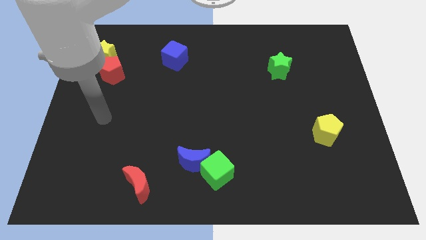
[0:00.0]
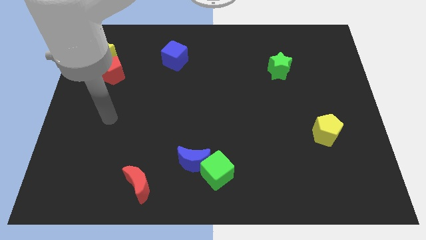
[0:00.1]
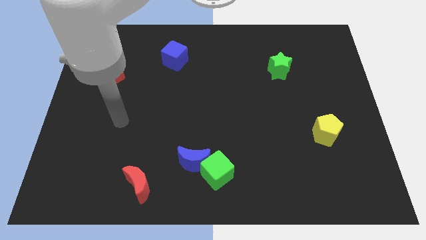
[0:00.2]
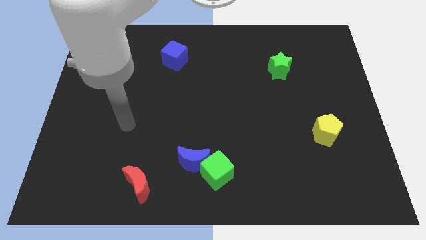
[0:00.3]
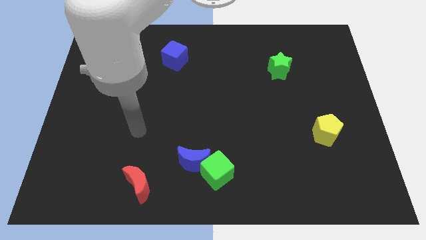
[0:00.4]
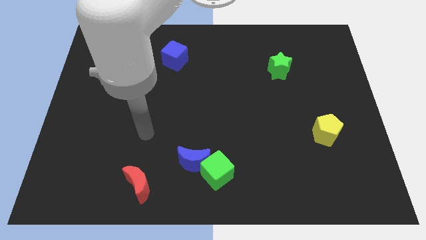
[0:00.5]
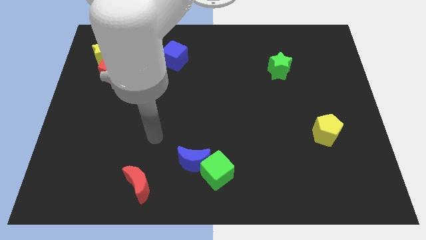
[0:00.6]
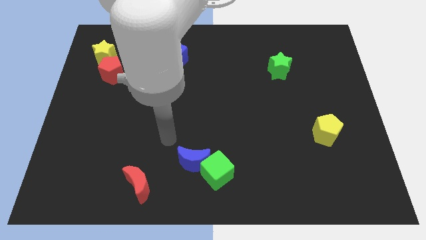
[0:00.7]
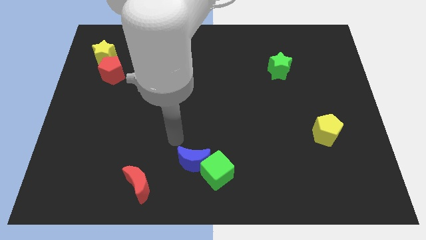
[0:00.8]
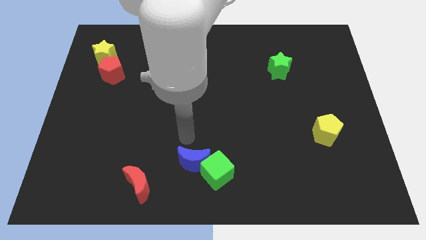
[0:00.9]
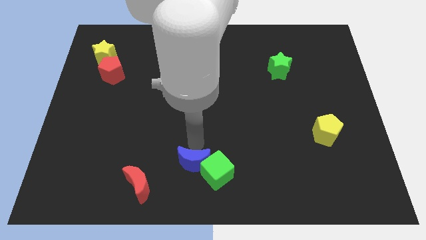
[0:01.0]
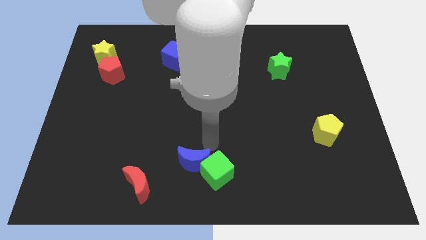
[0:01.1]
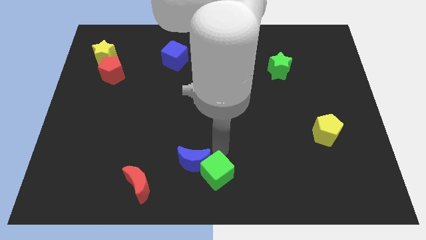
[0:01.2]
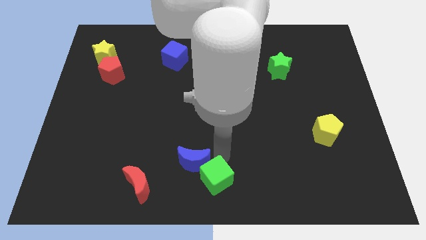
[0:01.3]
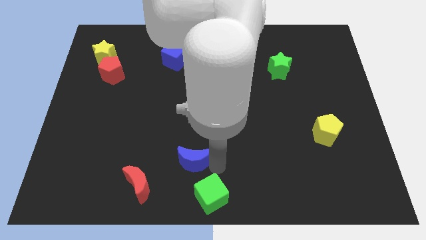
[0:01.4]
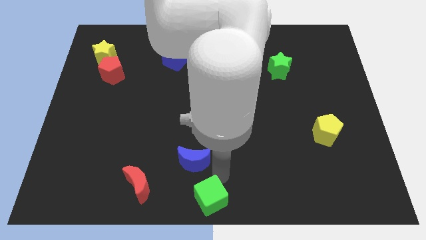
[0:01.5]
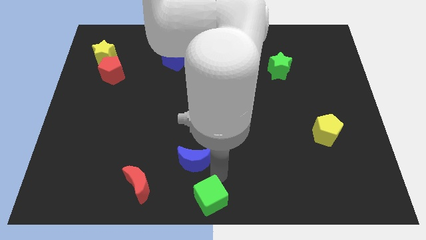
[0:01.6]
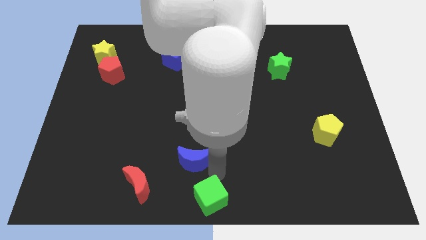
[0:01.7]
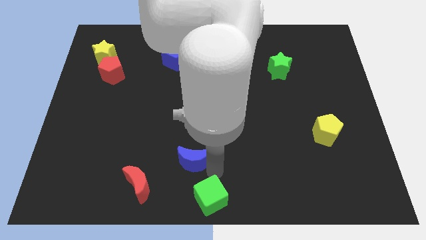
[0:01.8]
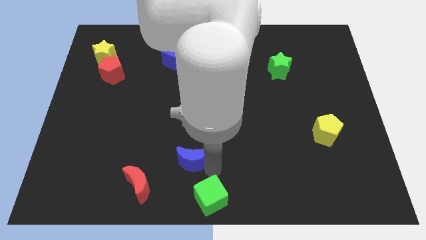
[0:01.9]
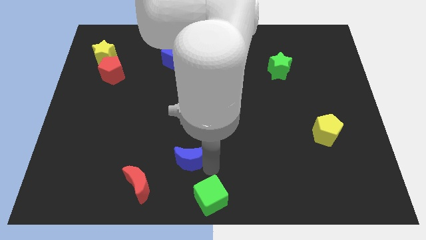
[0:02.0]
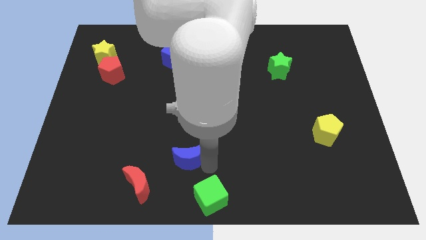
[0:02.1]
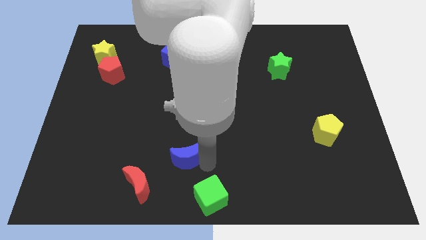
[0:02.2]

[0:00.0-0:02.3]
separate the blue moon from the green cube

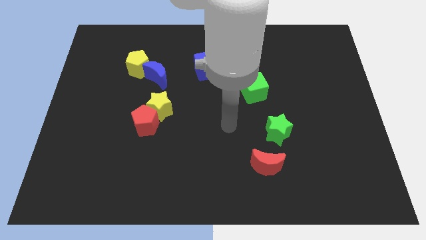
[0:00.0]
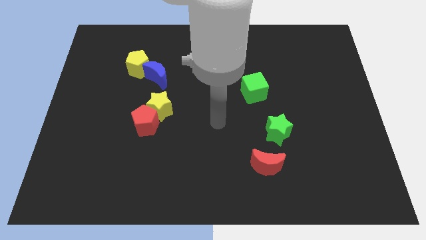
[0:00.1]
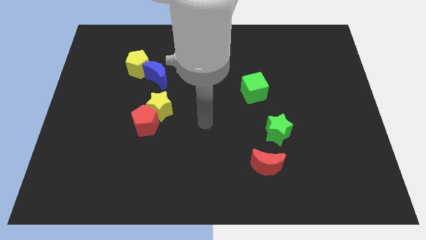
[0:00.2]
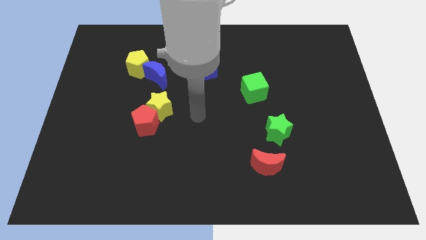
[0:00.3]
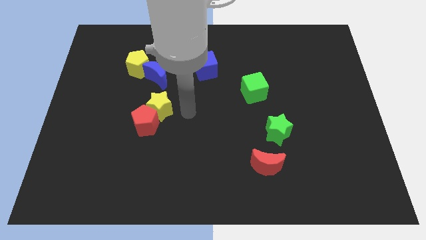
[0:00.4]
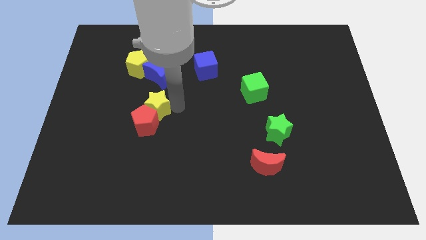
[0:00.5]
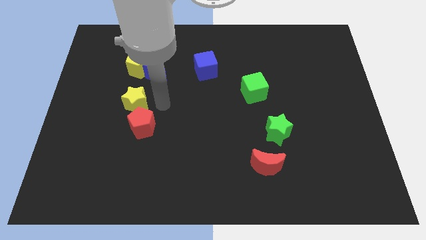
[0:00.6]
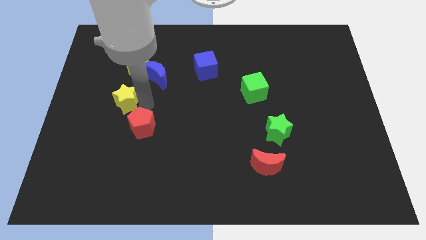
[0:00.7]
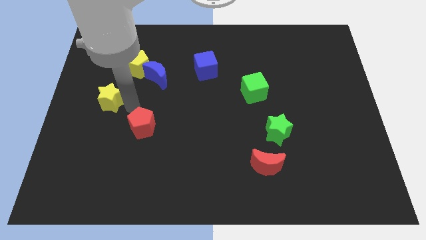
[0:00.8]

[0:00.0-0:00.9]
pull the red pentagon apart from the yellow star

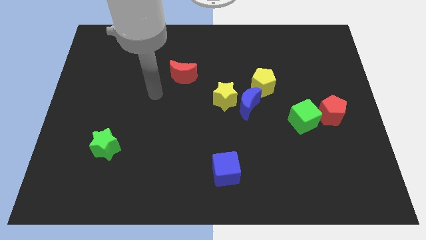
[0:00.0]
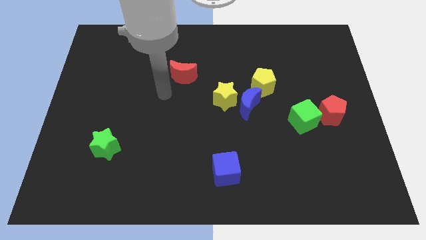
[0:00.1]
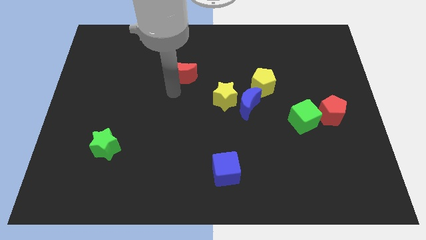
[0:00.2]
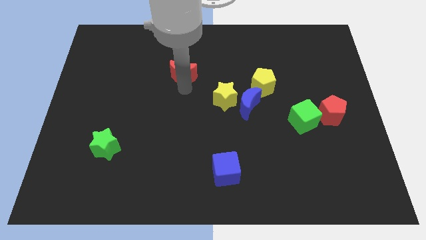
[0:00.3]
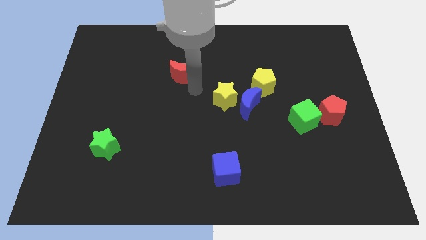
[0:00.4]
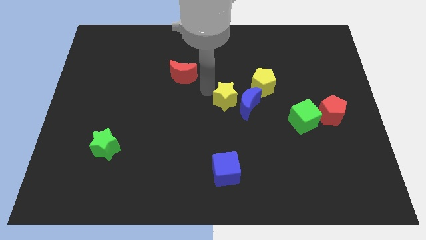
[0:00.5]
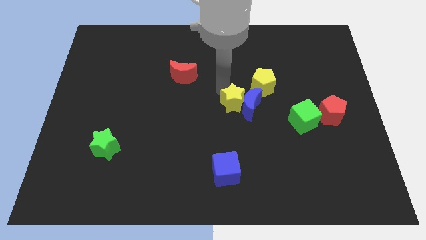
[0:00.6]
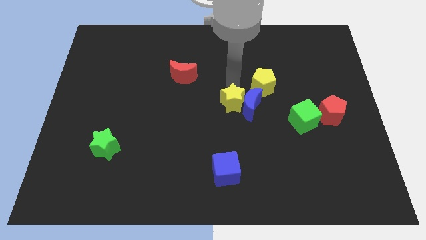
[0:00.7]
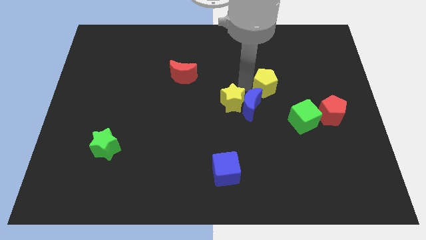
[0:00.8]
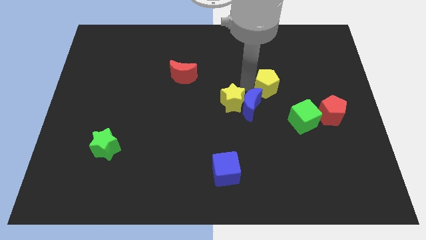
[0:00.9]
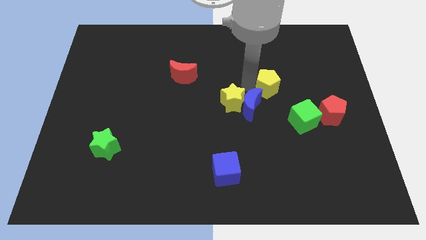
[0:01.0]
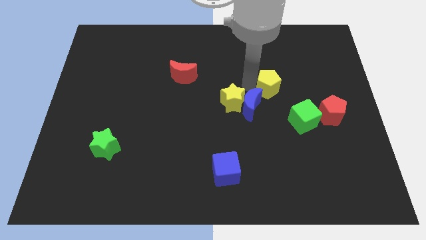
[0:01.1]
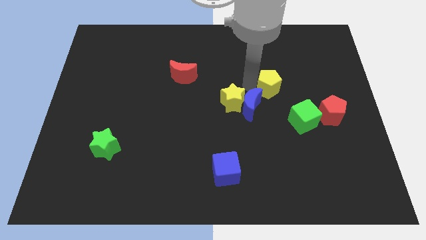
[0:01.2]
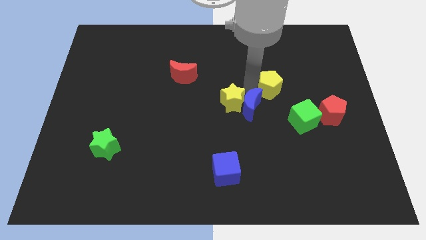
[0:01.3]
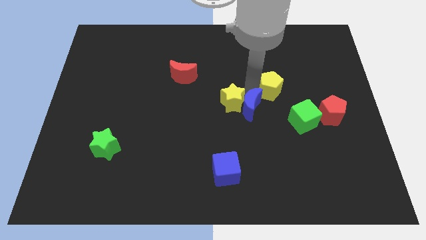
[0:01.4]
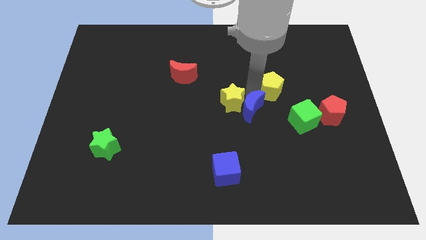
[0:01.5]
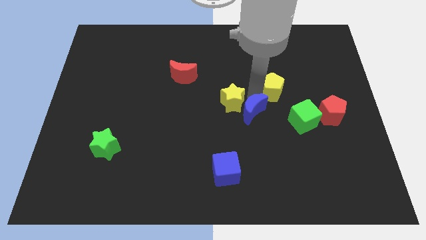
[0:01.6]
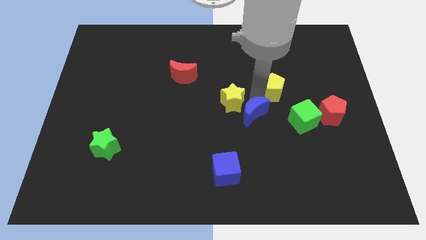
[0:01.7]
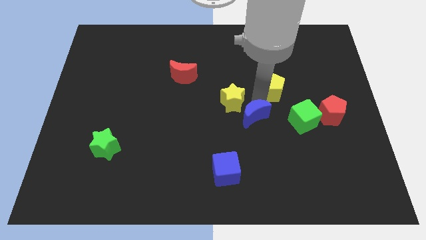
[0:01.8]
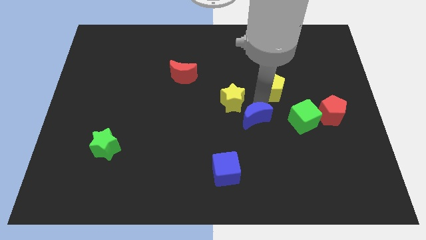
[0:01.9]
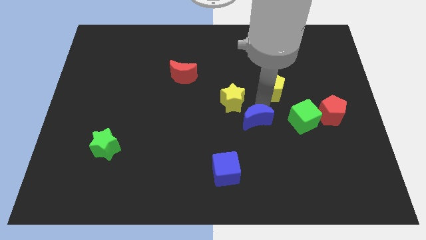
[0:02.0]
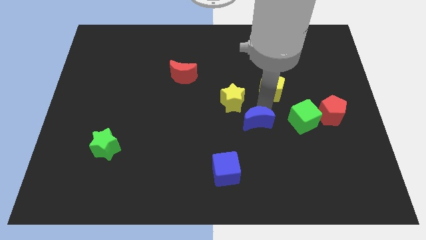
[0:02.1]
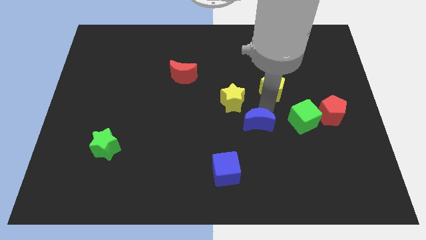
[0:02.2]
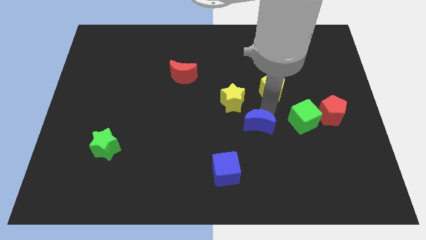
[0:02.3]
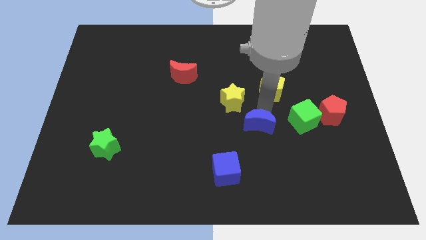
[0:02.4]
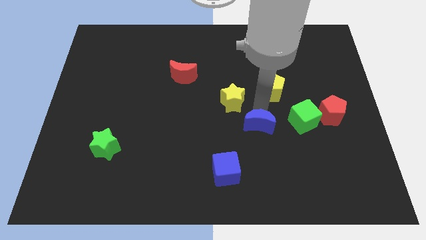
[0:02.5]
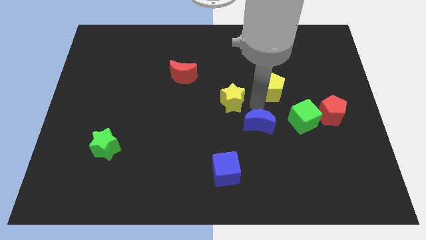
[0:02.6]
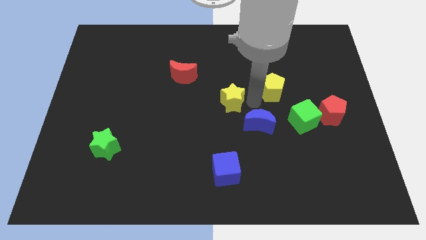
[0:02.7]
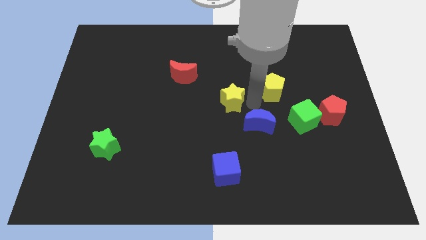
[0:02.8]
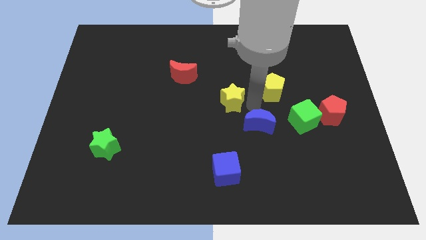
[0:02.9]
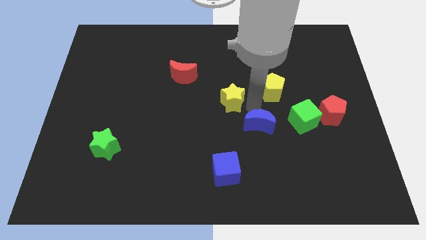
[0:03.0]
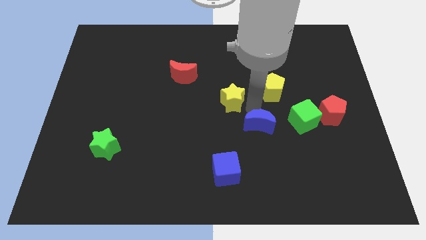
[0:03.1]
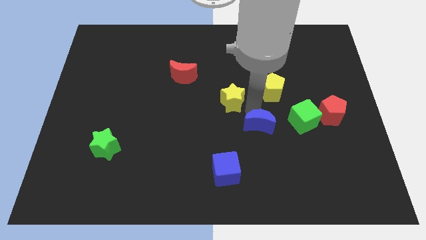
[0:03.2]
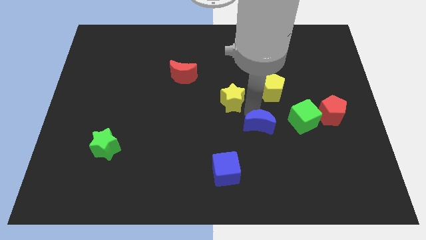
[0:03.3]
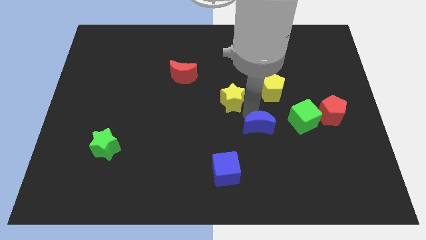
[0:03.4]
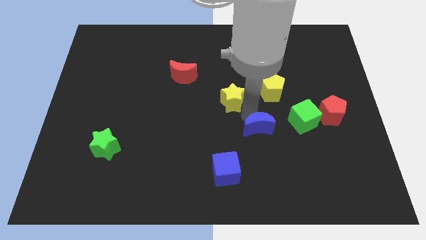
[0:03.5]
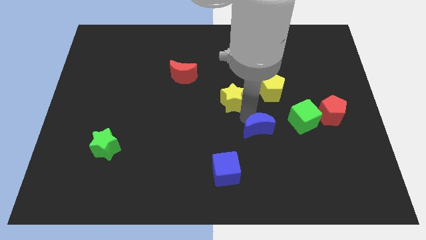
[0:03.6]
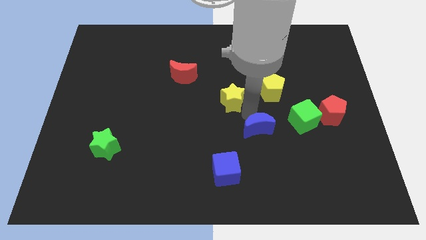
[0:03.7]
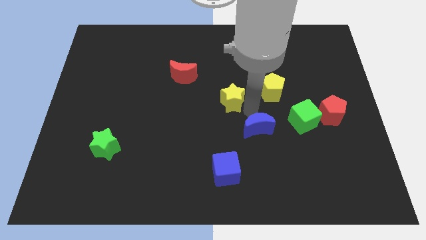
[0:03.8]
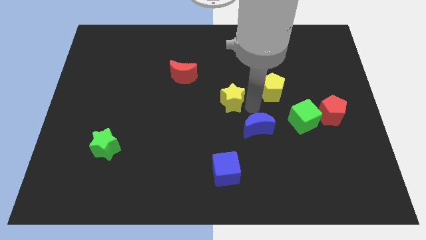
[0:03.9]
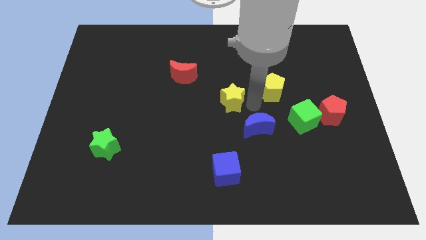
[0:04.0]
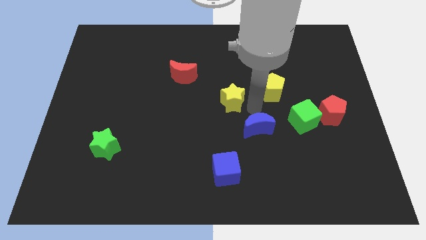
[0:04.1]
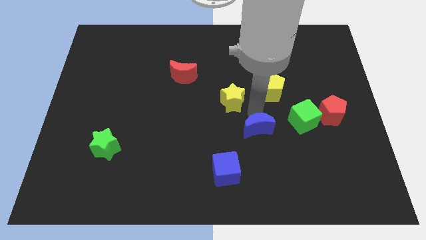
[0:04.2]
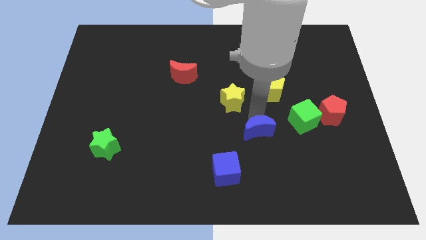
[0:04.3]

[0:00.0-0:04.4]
separate the blue moon from the yellow star and yellow pentagon

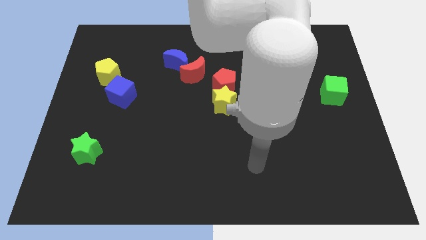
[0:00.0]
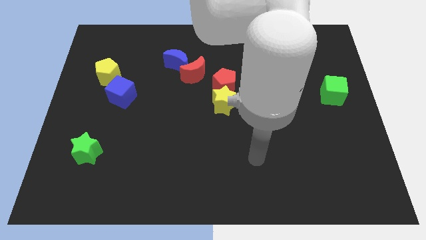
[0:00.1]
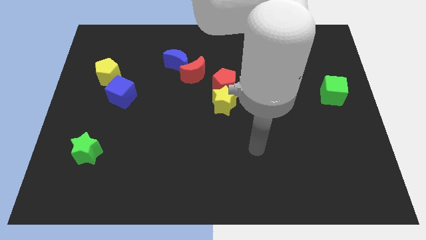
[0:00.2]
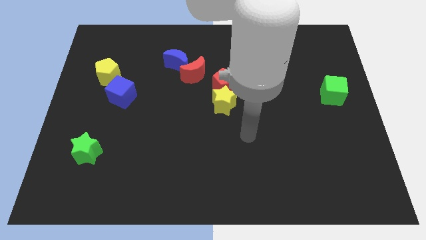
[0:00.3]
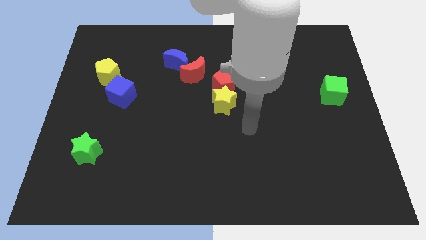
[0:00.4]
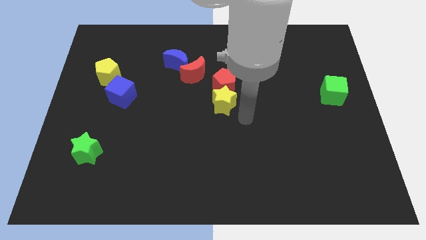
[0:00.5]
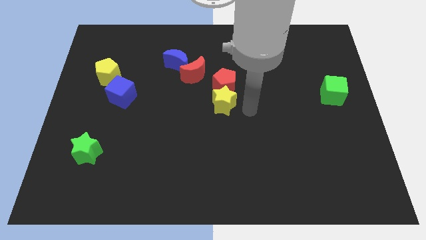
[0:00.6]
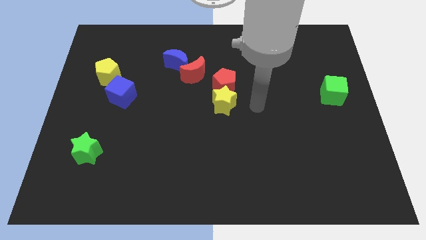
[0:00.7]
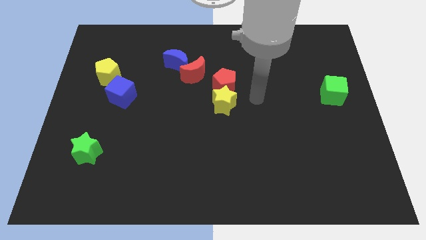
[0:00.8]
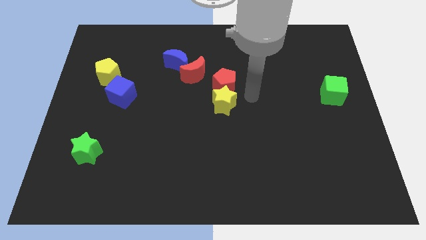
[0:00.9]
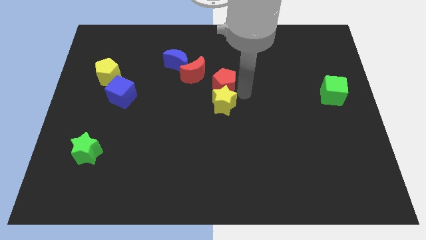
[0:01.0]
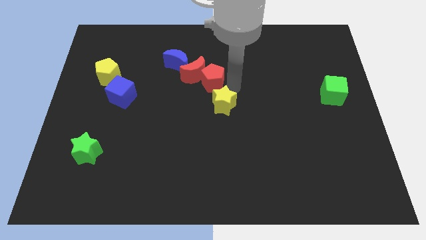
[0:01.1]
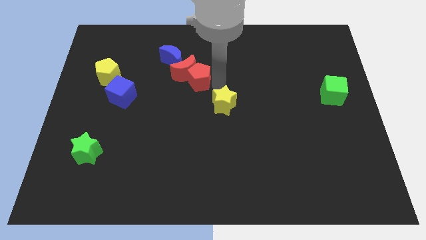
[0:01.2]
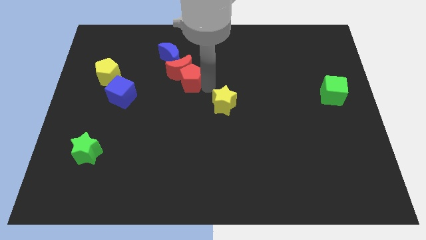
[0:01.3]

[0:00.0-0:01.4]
pull the yellow star apart from the red pentagon

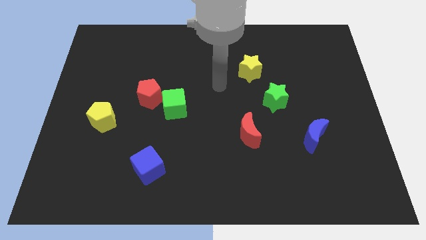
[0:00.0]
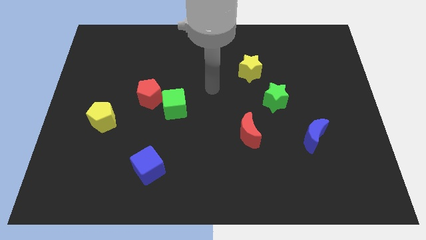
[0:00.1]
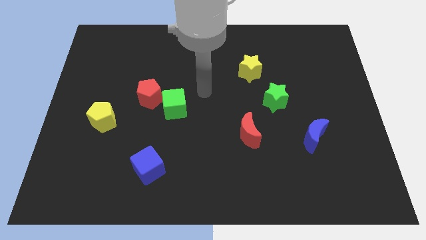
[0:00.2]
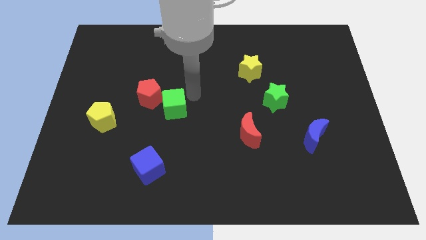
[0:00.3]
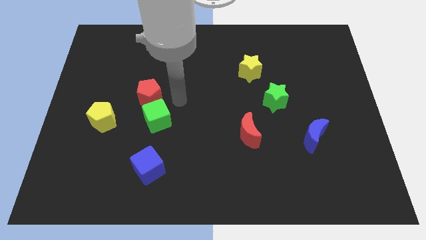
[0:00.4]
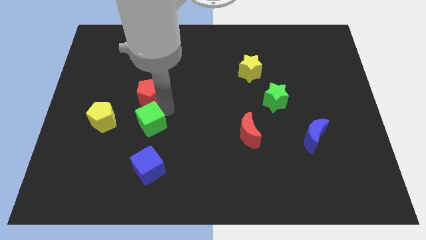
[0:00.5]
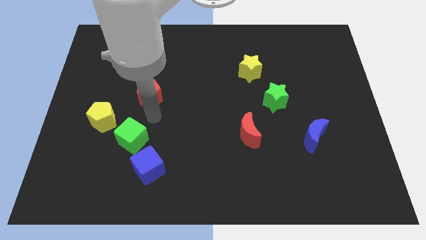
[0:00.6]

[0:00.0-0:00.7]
pull the red pentagon apart from the green cube
